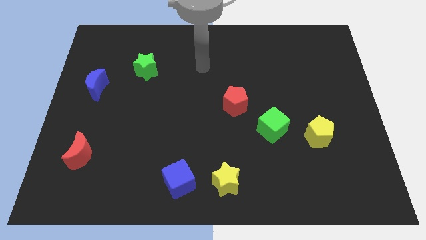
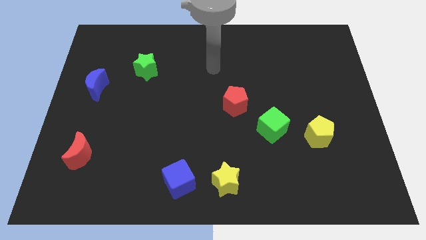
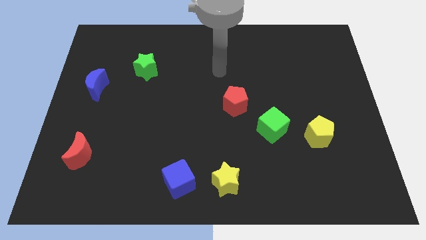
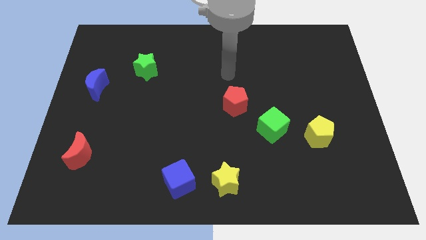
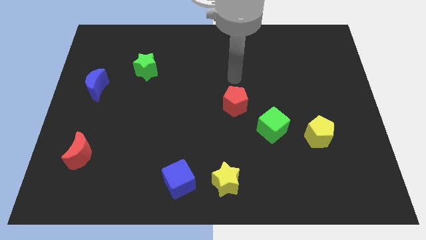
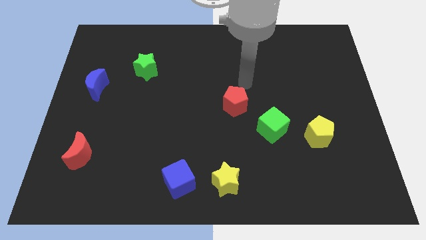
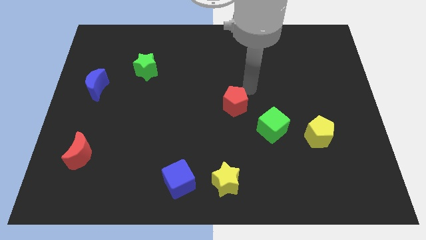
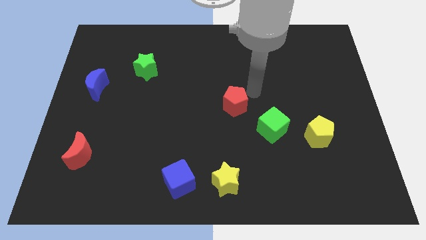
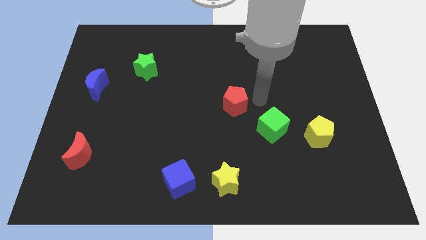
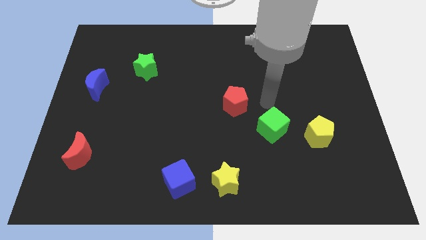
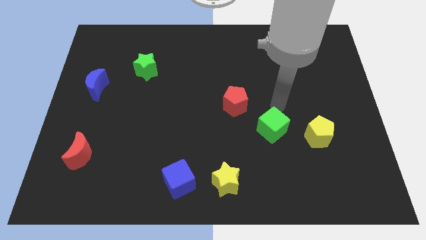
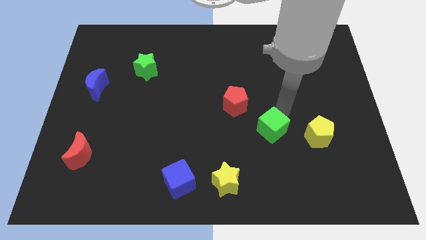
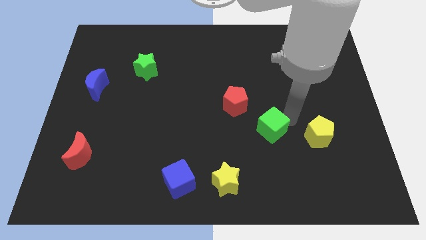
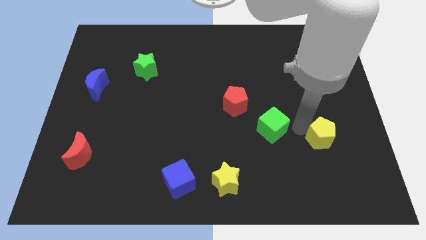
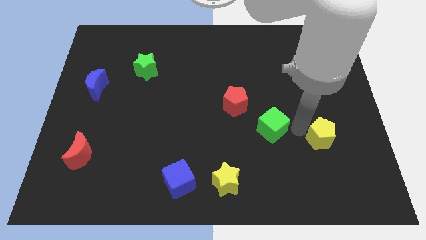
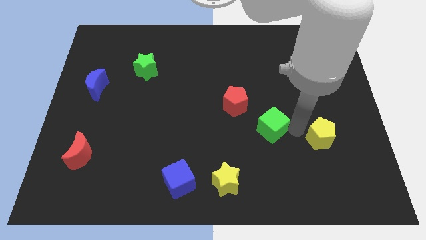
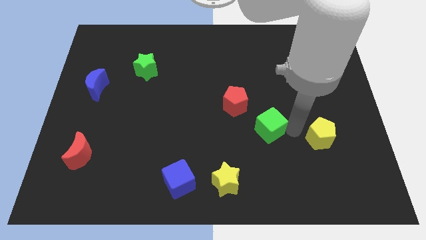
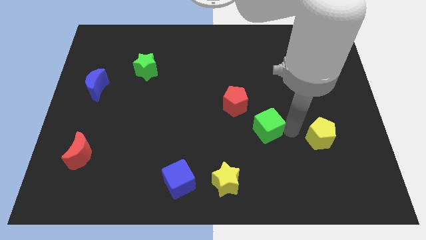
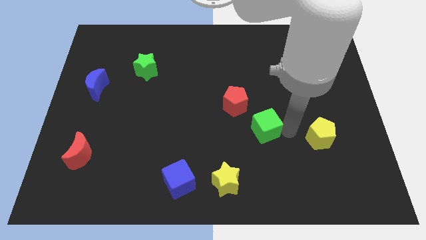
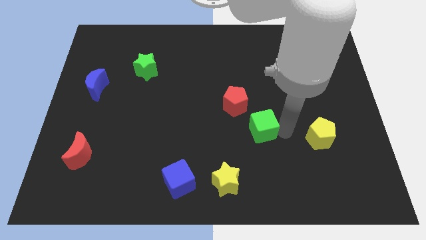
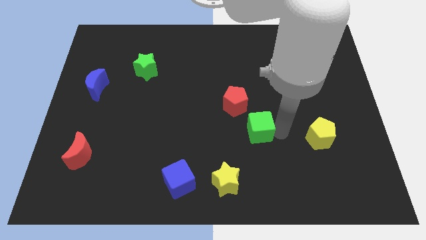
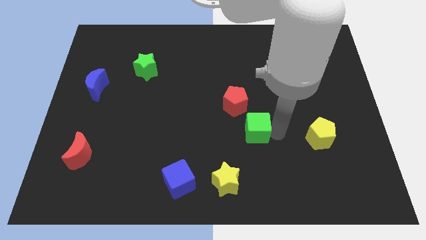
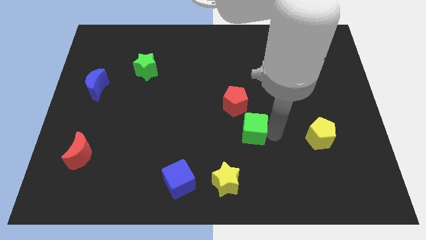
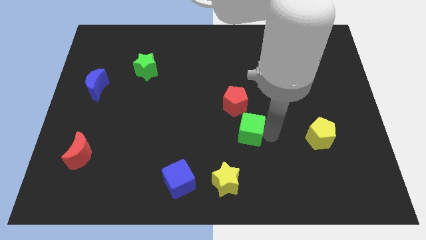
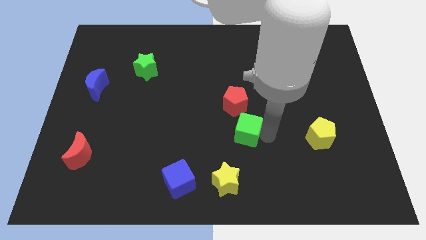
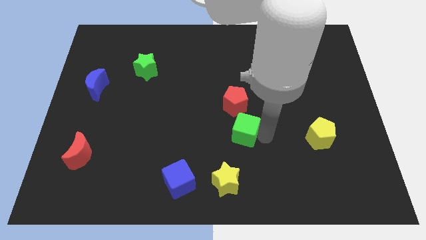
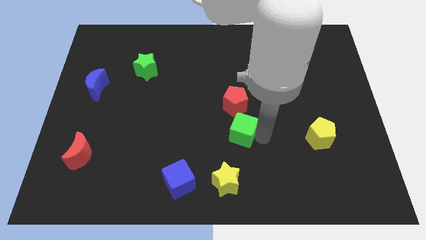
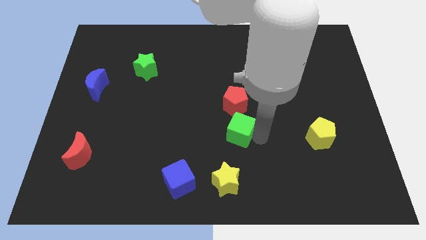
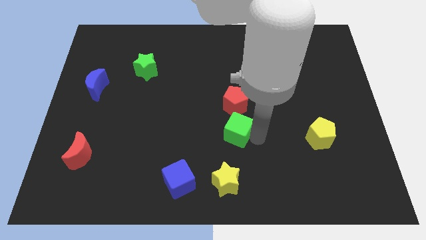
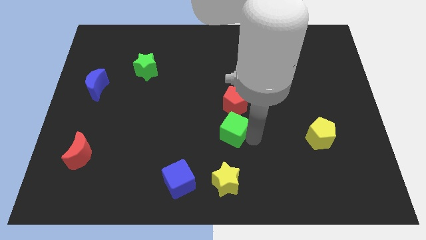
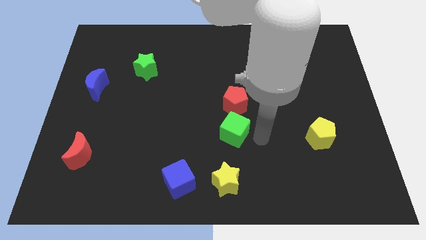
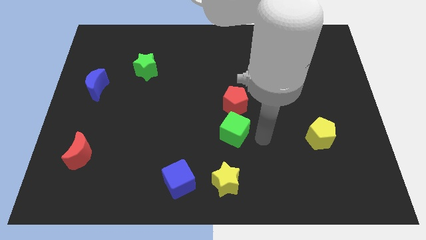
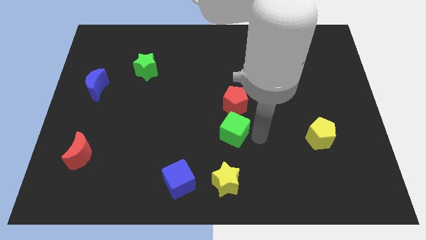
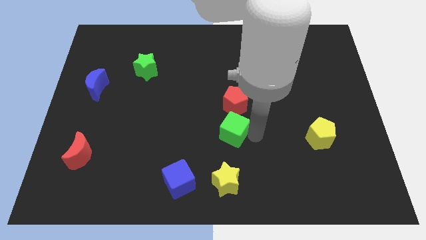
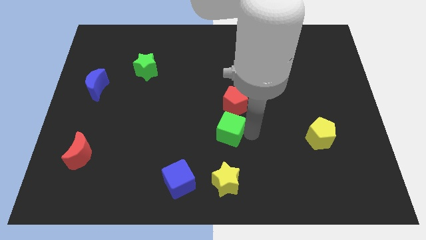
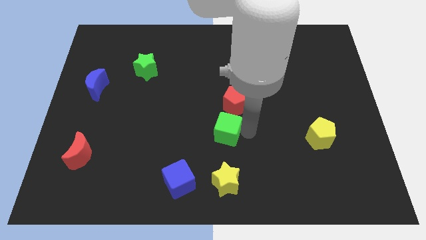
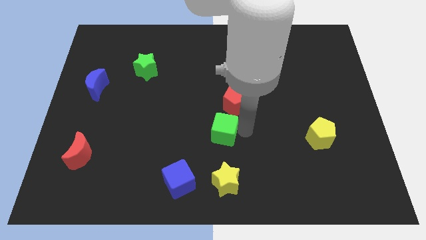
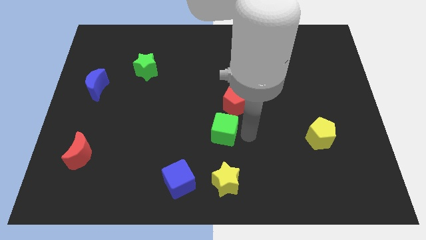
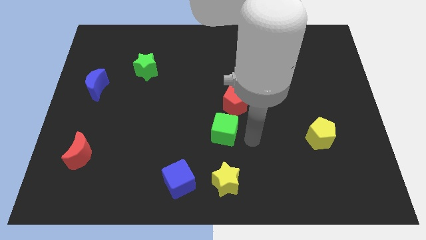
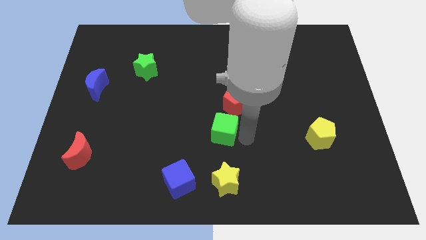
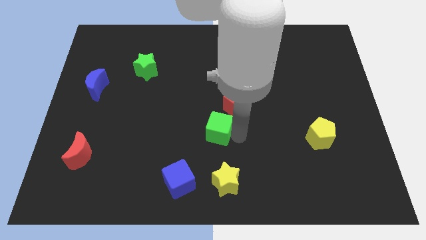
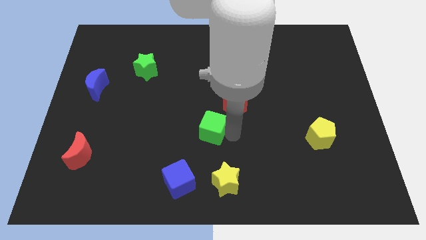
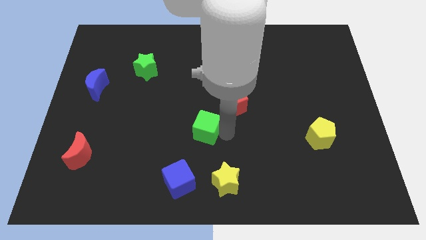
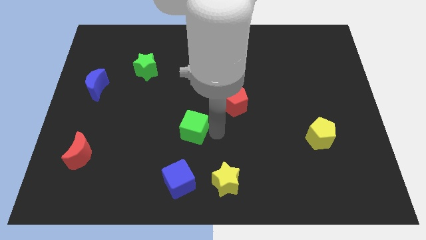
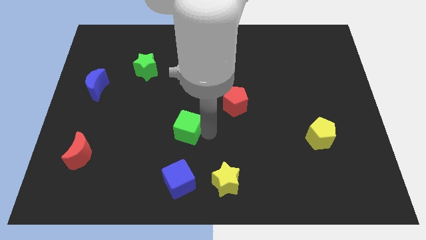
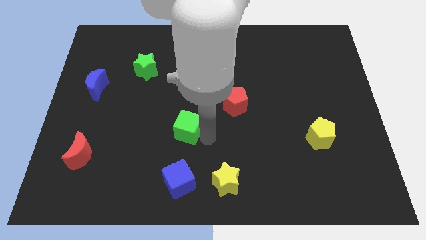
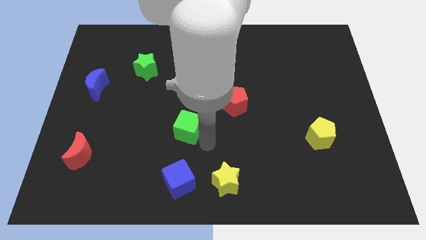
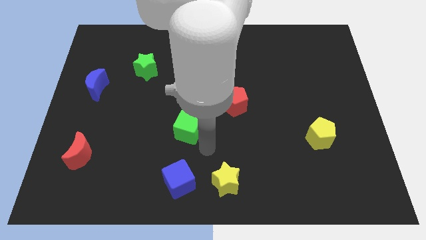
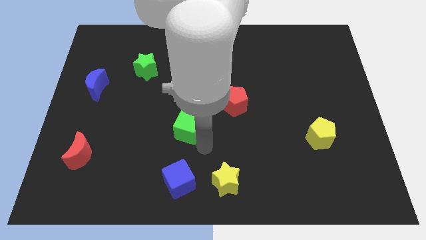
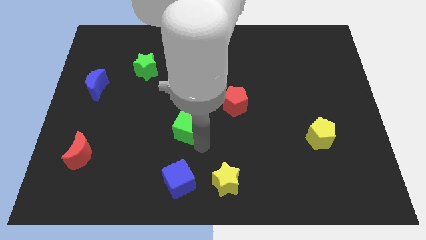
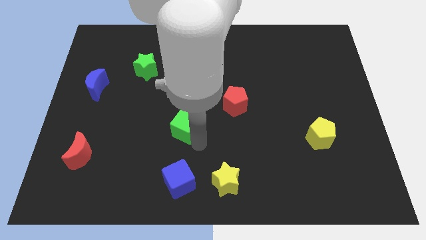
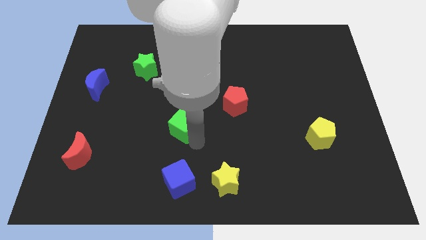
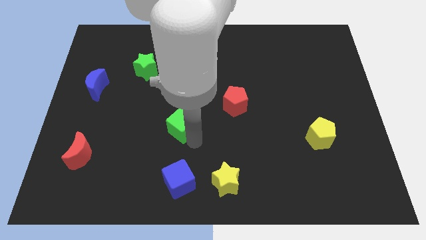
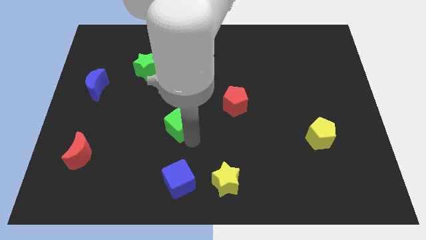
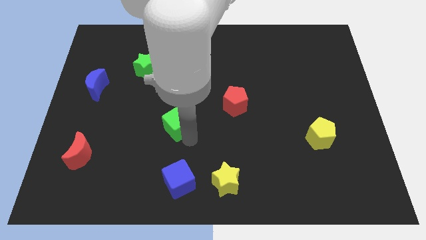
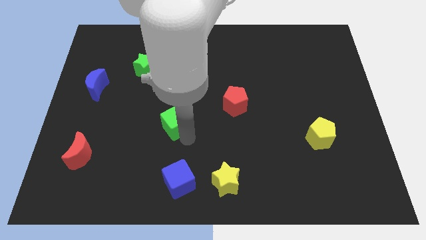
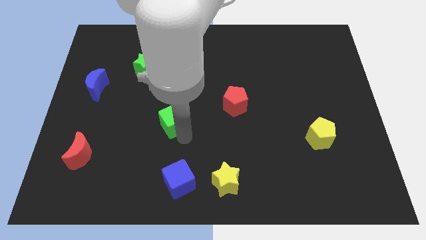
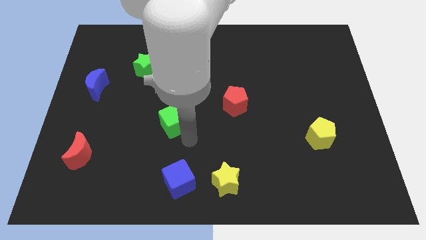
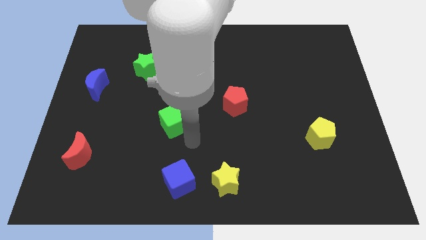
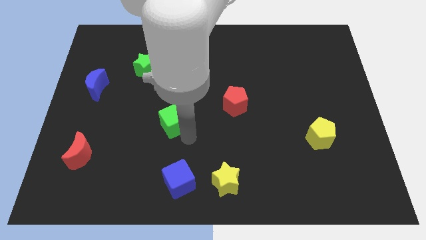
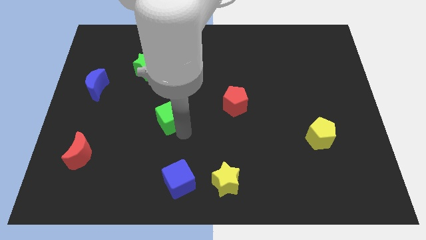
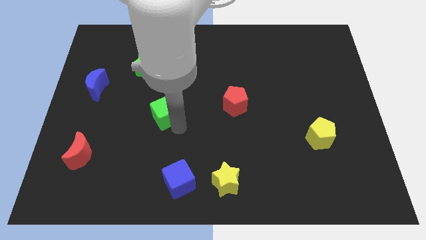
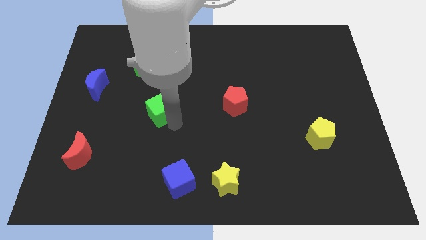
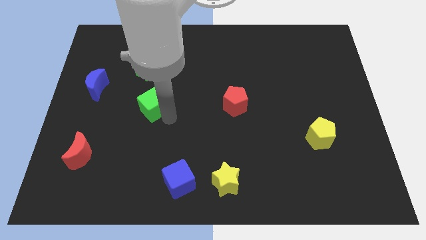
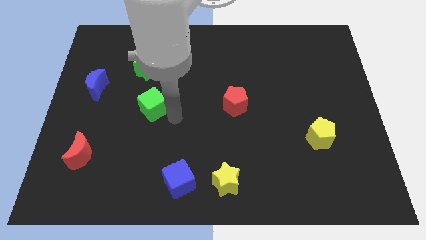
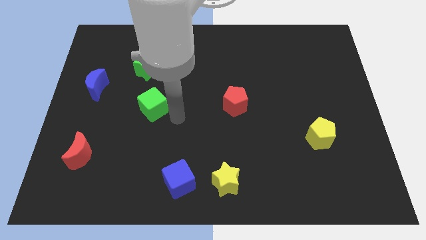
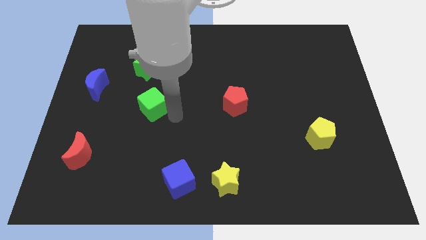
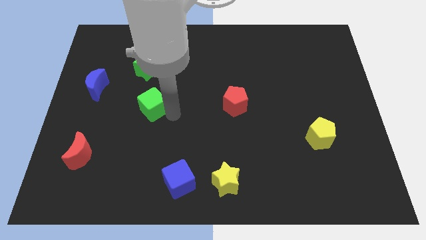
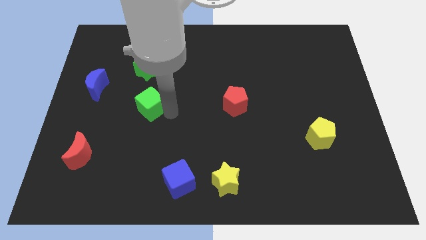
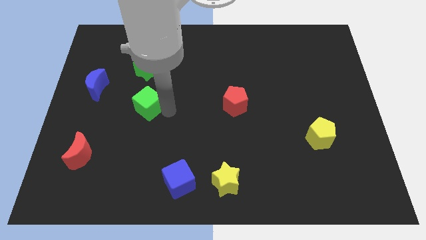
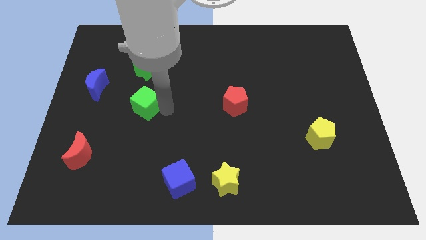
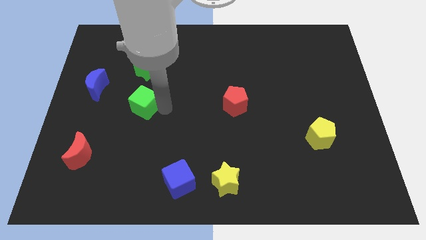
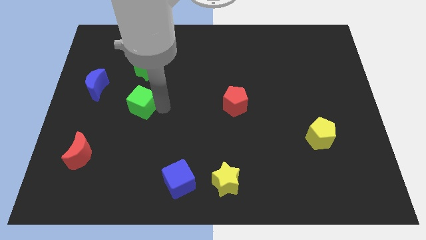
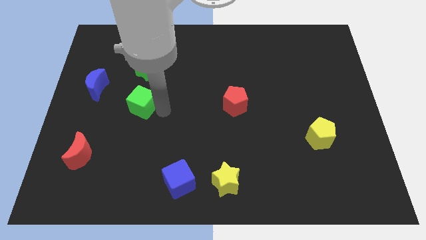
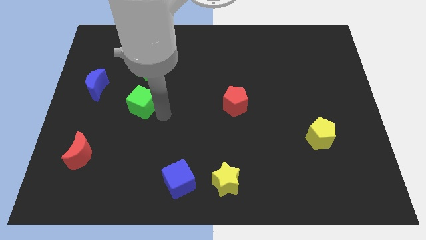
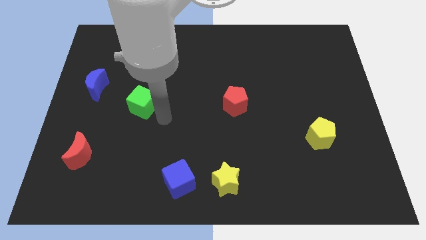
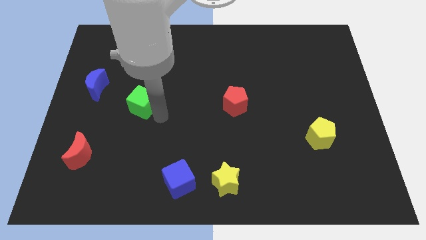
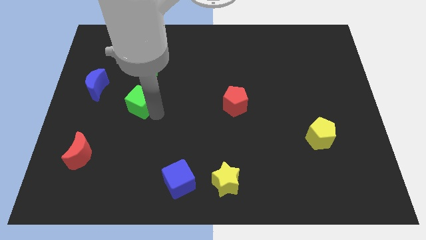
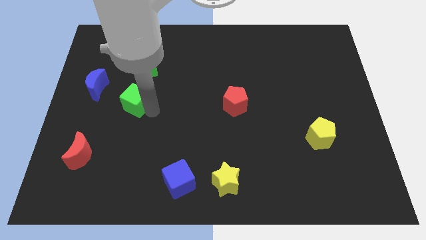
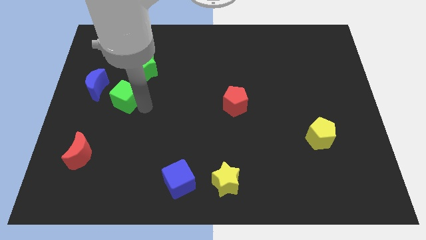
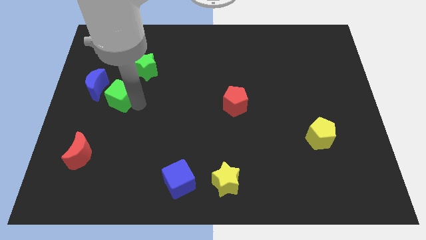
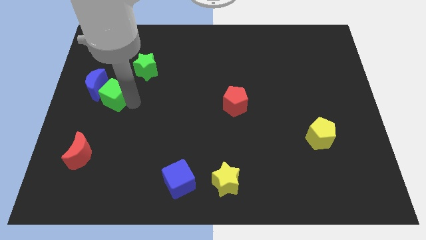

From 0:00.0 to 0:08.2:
push the green cube to the blue moon
